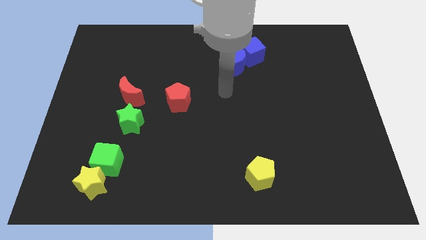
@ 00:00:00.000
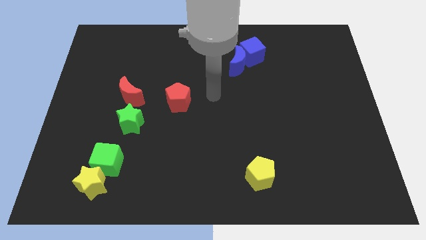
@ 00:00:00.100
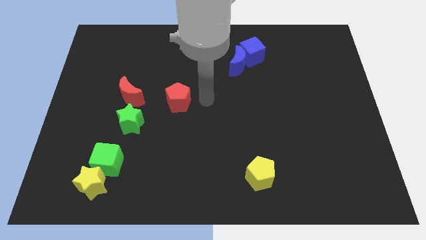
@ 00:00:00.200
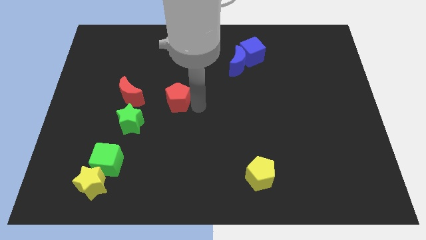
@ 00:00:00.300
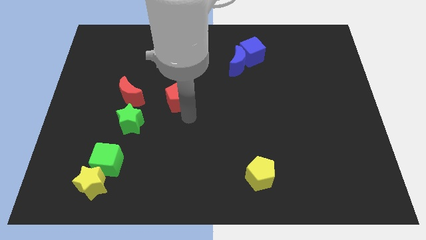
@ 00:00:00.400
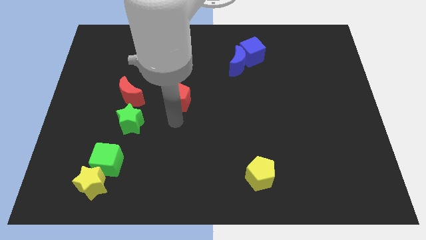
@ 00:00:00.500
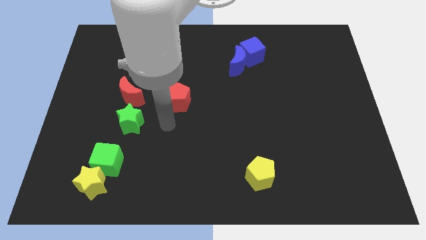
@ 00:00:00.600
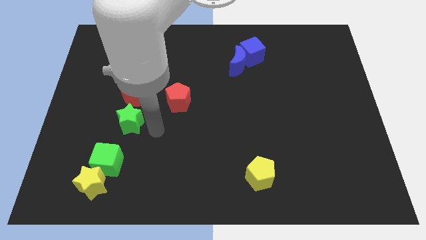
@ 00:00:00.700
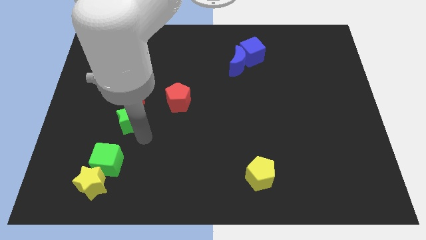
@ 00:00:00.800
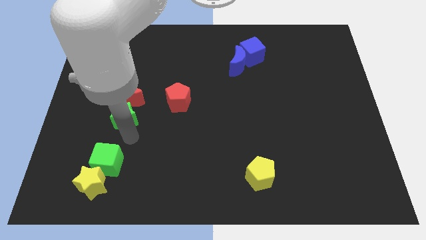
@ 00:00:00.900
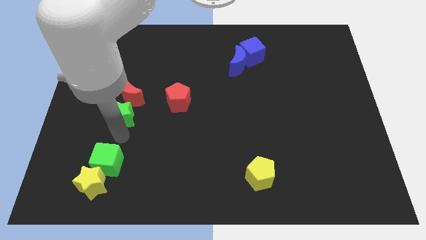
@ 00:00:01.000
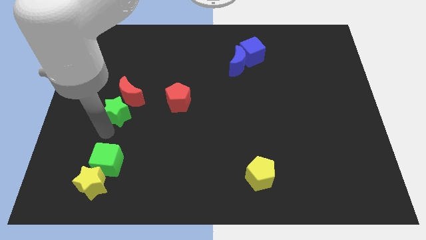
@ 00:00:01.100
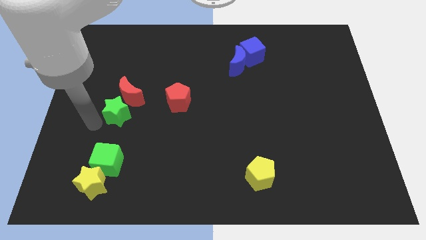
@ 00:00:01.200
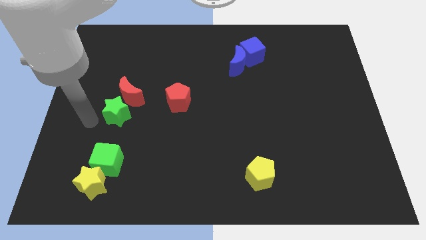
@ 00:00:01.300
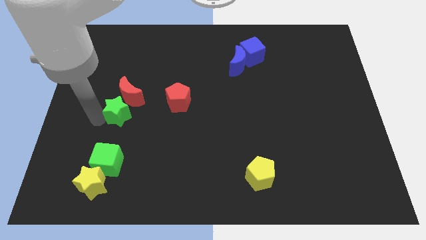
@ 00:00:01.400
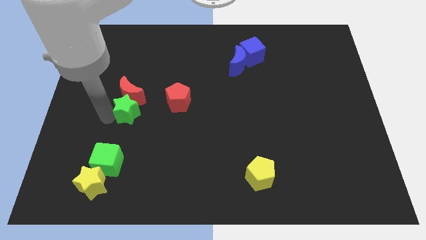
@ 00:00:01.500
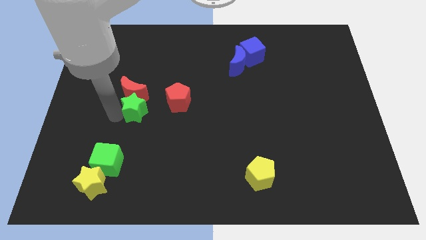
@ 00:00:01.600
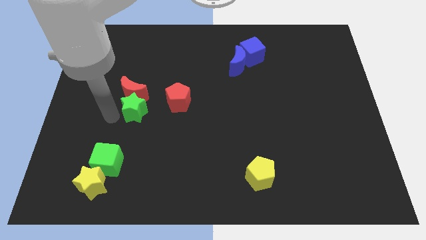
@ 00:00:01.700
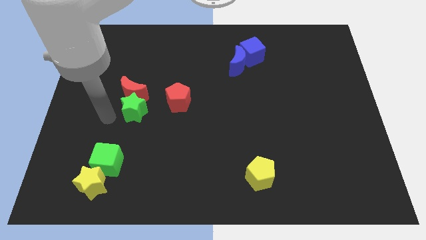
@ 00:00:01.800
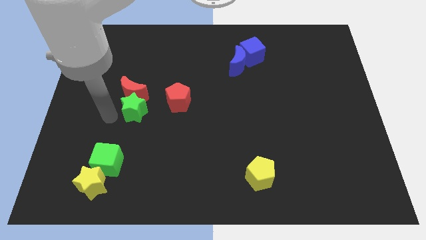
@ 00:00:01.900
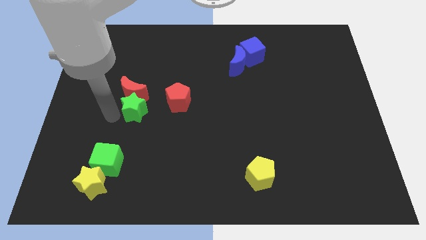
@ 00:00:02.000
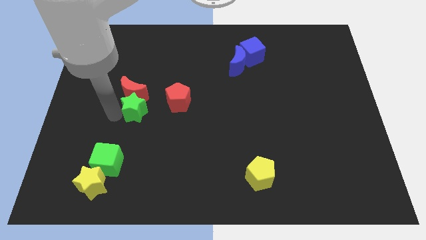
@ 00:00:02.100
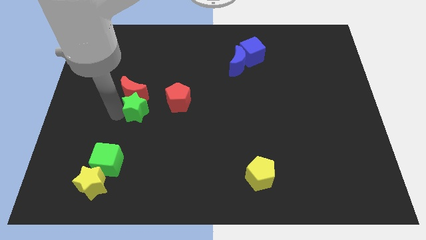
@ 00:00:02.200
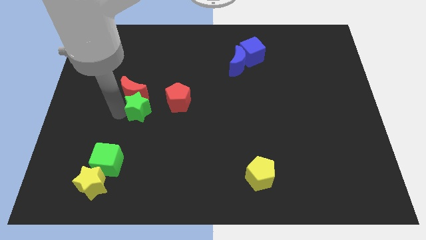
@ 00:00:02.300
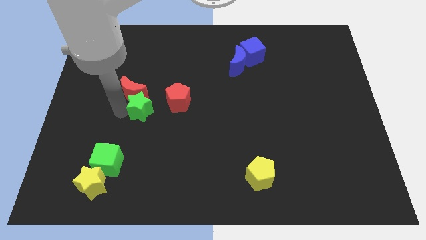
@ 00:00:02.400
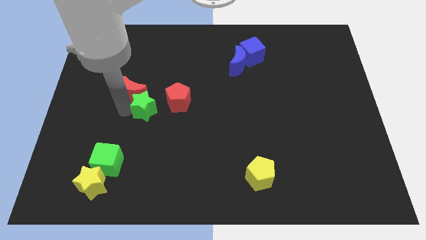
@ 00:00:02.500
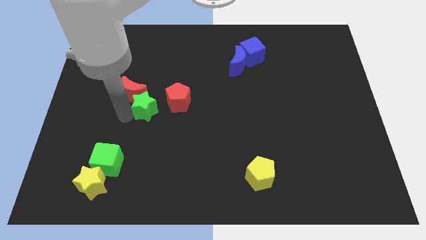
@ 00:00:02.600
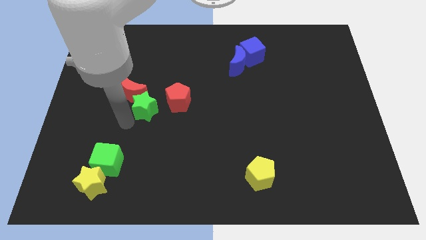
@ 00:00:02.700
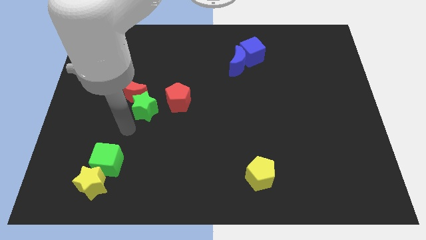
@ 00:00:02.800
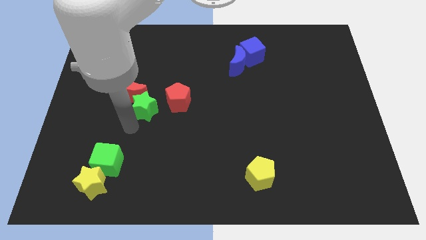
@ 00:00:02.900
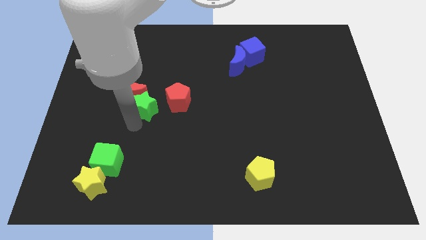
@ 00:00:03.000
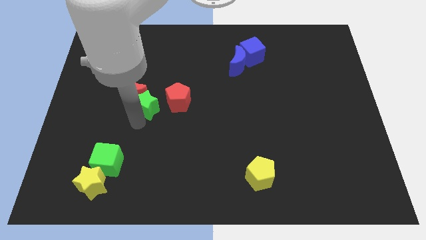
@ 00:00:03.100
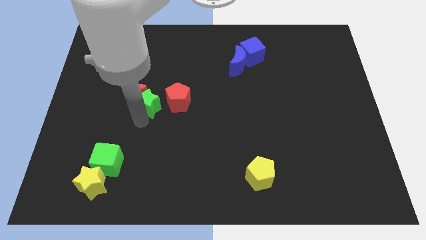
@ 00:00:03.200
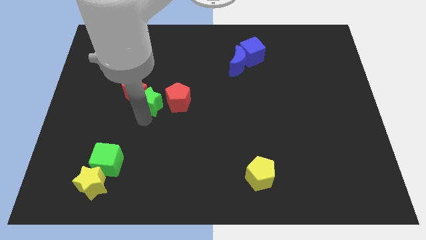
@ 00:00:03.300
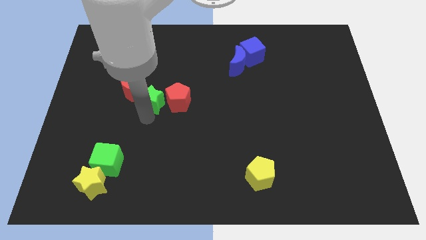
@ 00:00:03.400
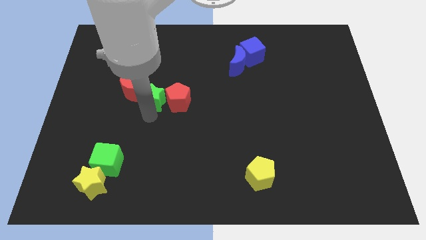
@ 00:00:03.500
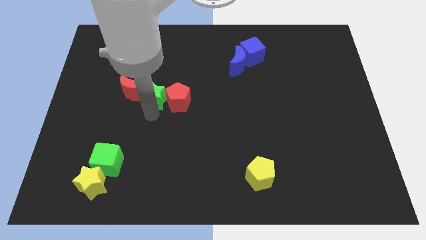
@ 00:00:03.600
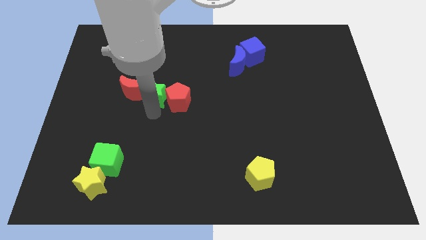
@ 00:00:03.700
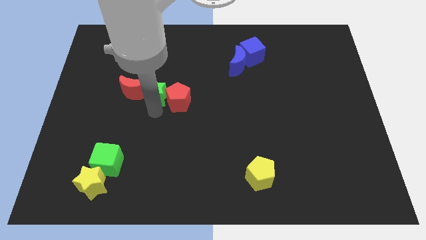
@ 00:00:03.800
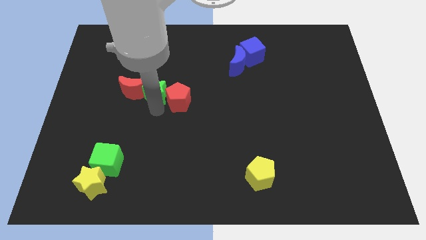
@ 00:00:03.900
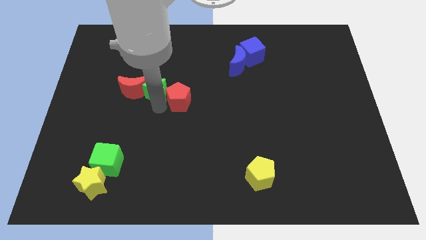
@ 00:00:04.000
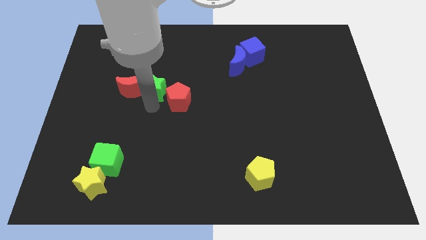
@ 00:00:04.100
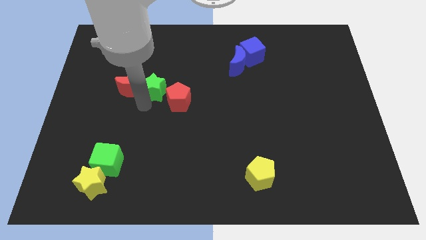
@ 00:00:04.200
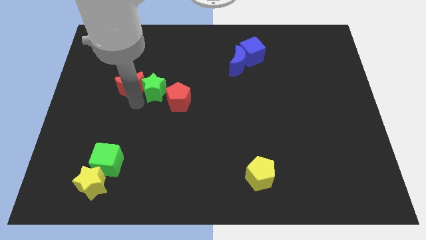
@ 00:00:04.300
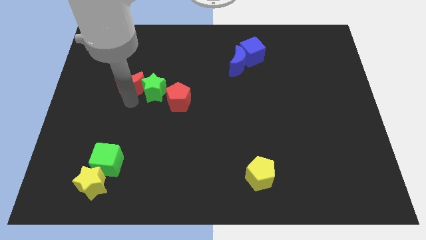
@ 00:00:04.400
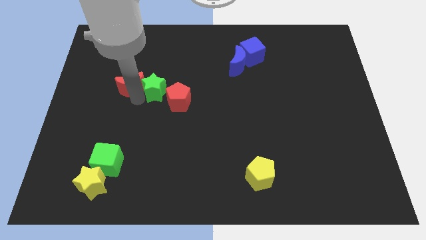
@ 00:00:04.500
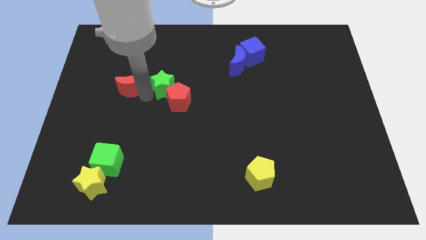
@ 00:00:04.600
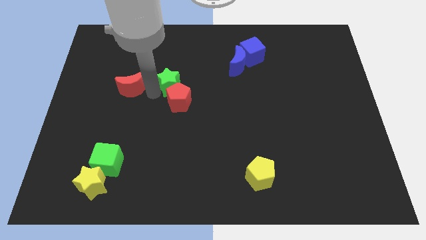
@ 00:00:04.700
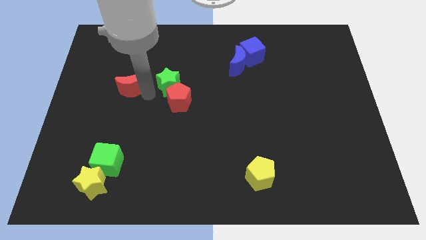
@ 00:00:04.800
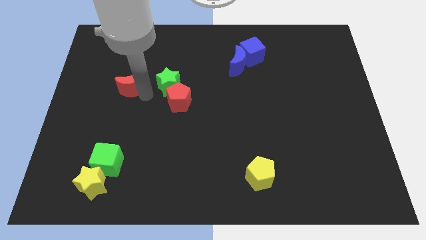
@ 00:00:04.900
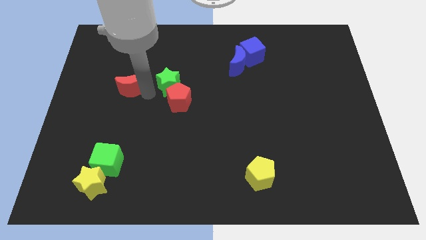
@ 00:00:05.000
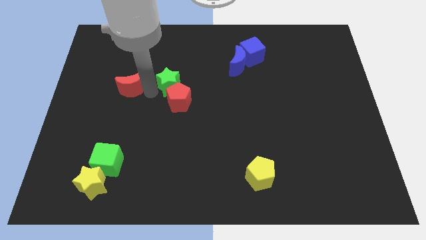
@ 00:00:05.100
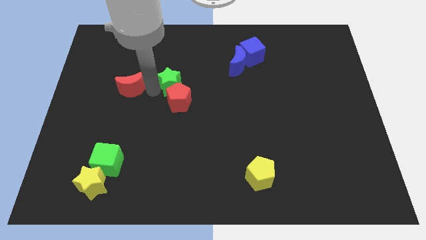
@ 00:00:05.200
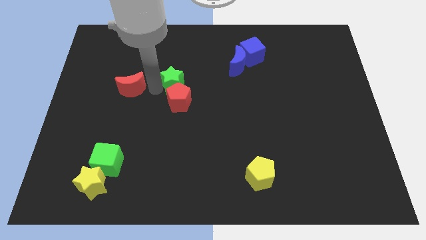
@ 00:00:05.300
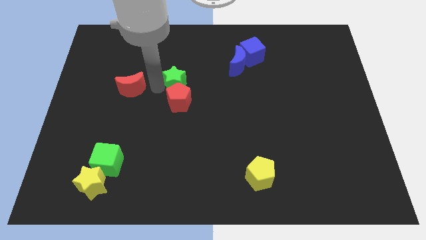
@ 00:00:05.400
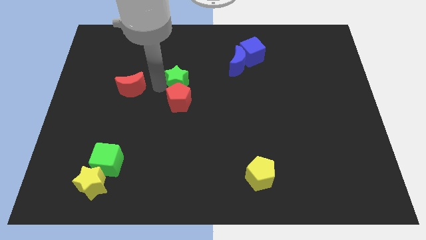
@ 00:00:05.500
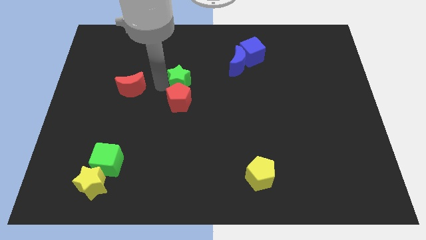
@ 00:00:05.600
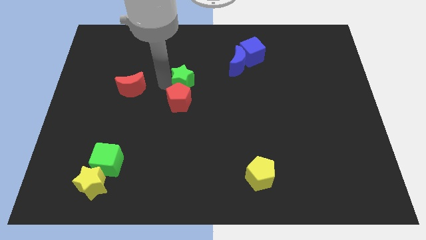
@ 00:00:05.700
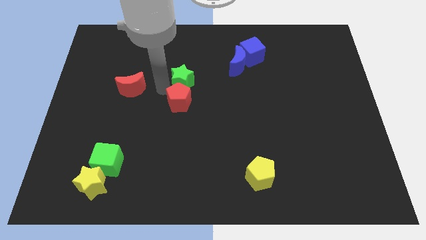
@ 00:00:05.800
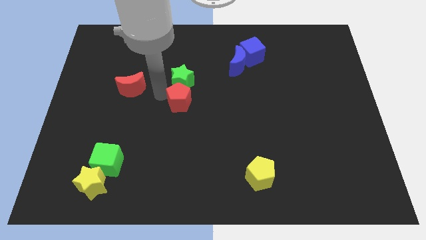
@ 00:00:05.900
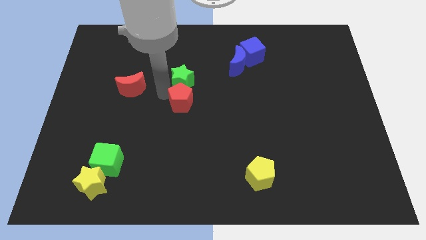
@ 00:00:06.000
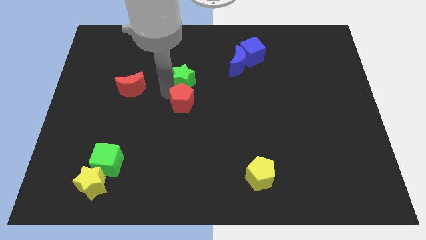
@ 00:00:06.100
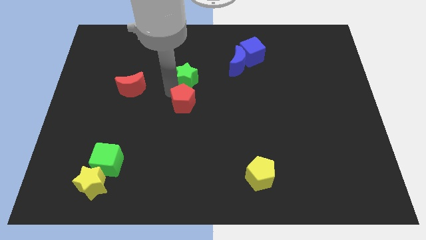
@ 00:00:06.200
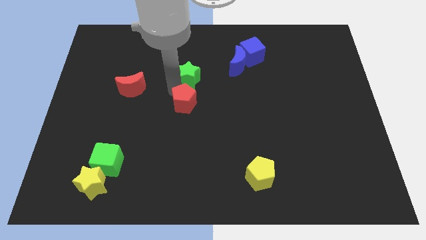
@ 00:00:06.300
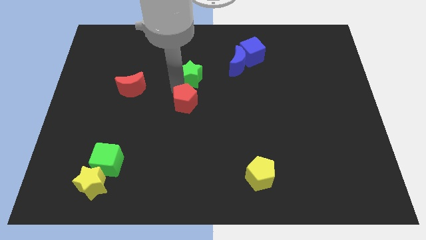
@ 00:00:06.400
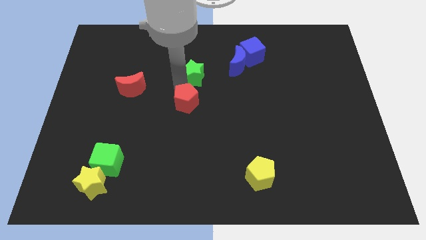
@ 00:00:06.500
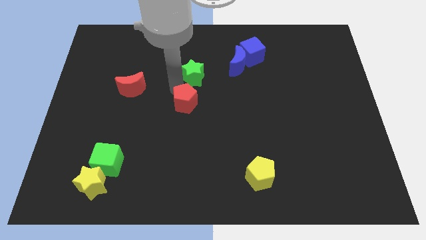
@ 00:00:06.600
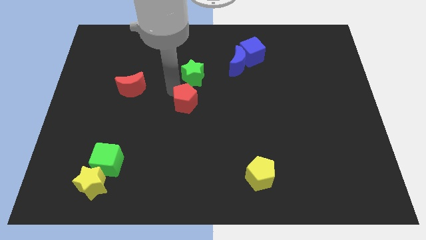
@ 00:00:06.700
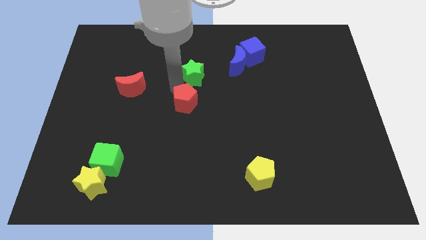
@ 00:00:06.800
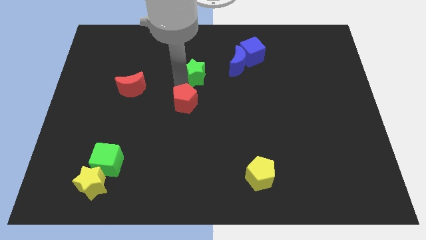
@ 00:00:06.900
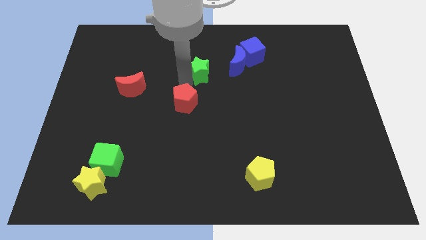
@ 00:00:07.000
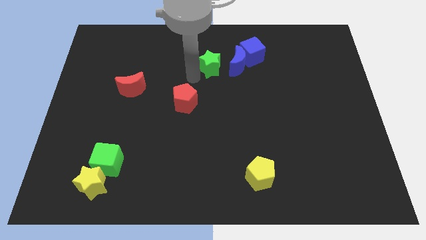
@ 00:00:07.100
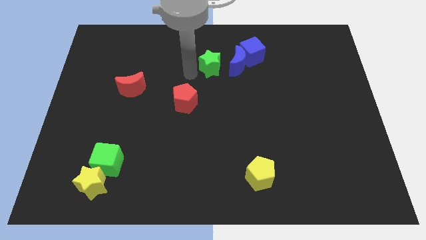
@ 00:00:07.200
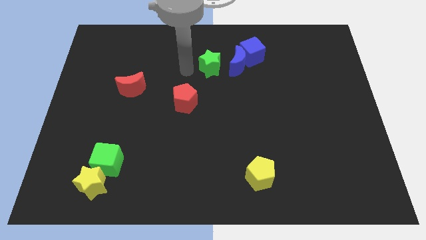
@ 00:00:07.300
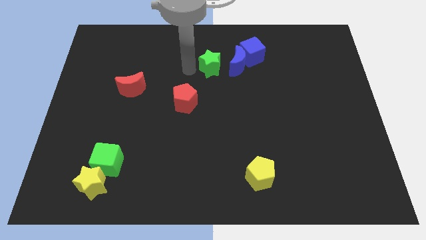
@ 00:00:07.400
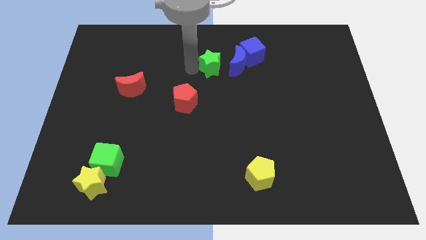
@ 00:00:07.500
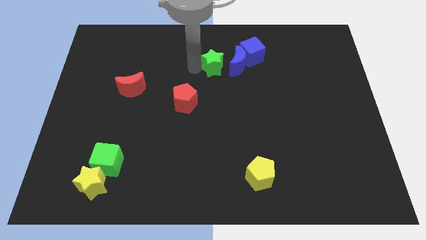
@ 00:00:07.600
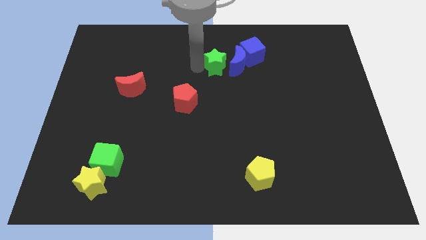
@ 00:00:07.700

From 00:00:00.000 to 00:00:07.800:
put the green star close to the blue moon
